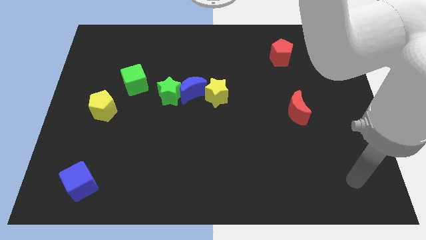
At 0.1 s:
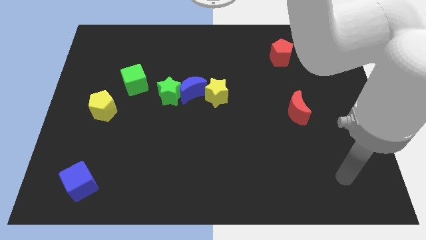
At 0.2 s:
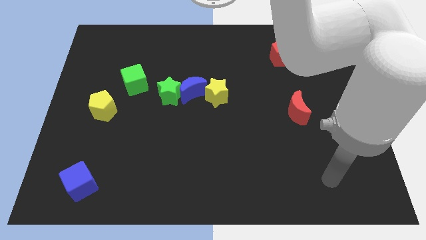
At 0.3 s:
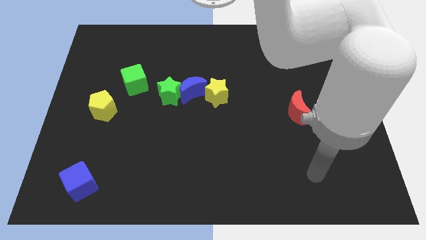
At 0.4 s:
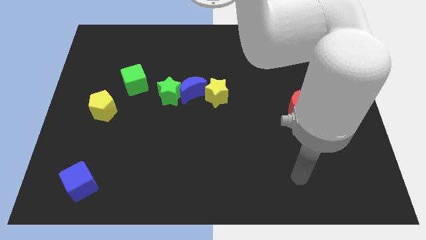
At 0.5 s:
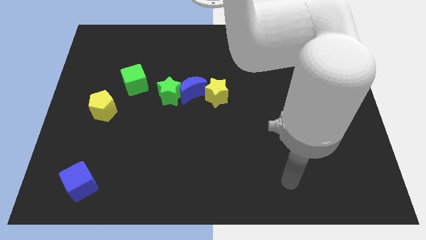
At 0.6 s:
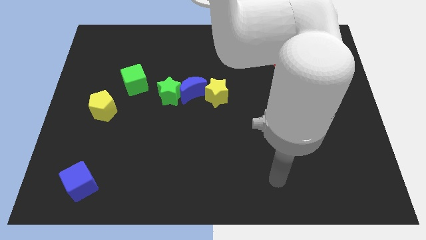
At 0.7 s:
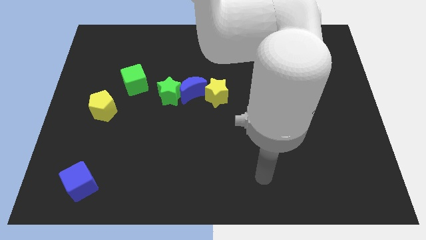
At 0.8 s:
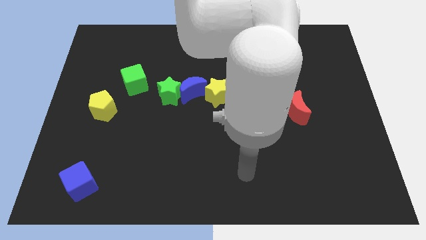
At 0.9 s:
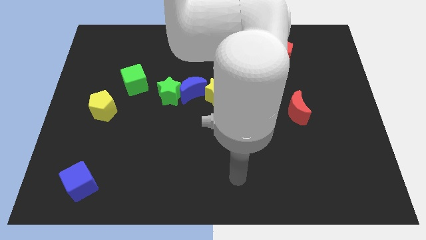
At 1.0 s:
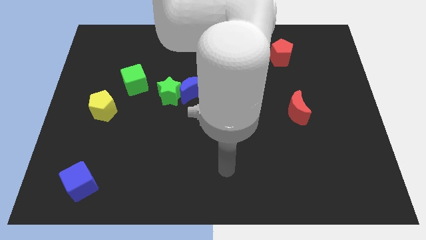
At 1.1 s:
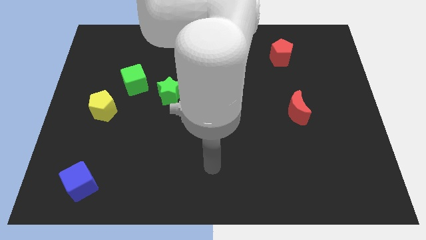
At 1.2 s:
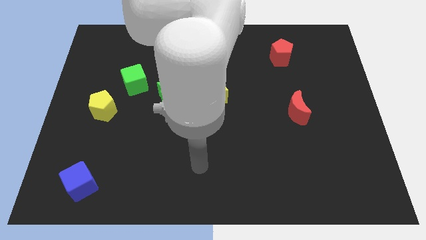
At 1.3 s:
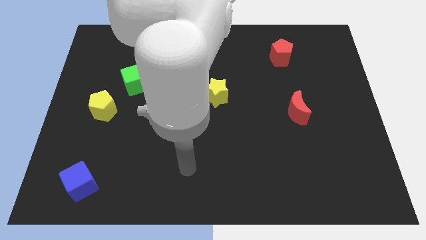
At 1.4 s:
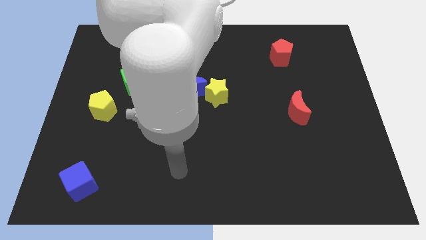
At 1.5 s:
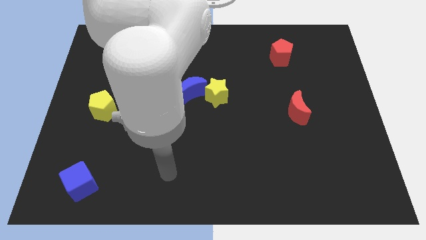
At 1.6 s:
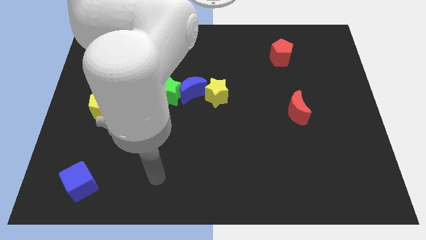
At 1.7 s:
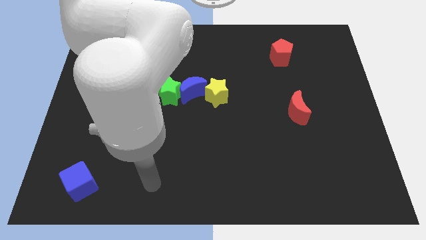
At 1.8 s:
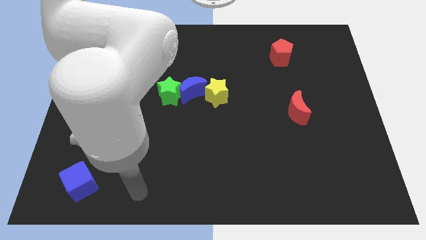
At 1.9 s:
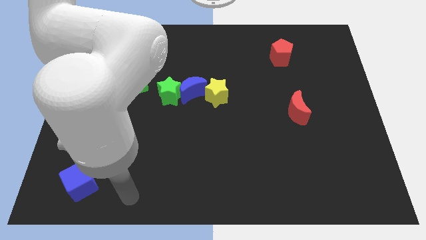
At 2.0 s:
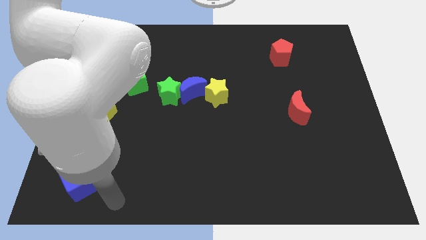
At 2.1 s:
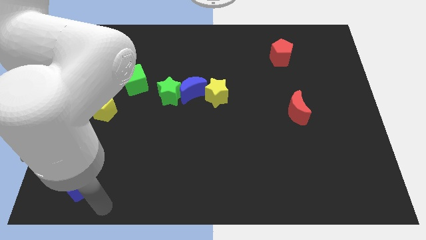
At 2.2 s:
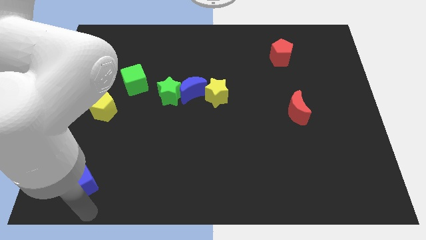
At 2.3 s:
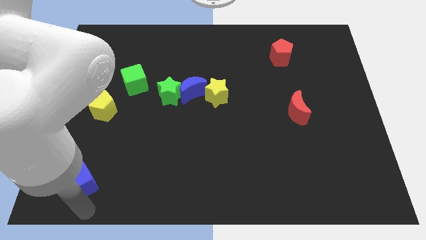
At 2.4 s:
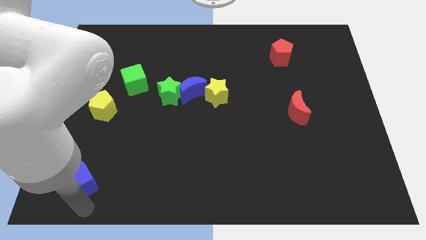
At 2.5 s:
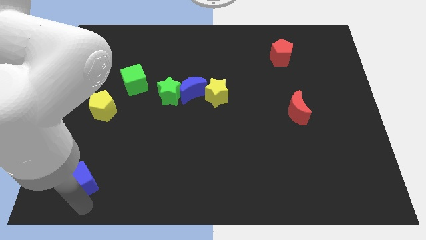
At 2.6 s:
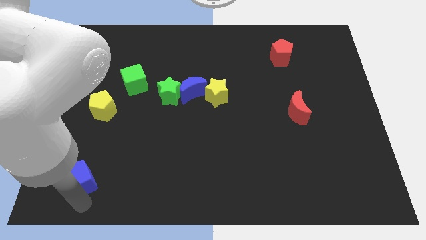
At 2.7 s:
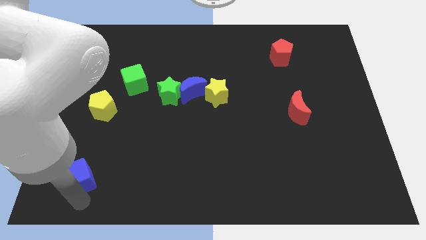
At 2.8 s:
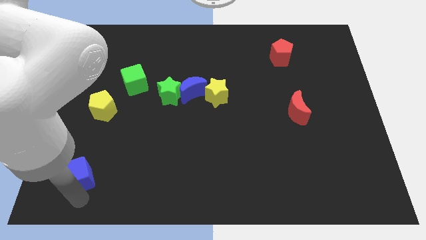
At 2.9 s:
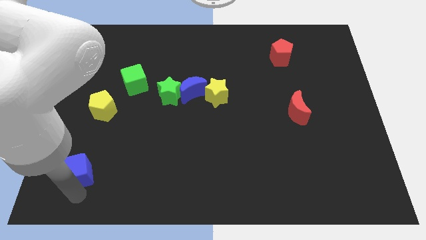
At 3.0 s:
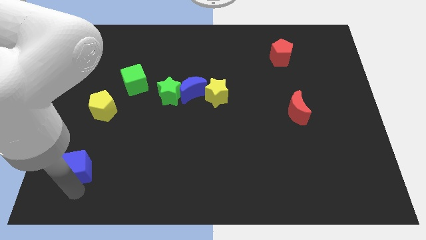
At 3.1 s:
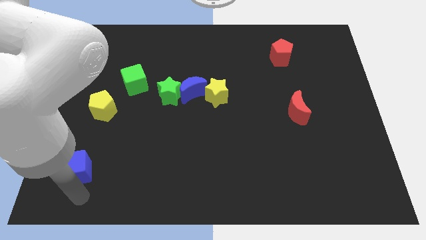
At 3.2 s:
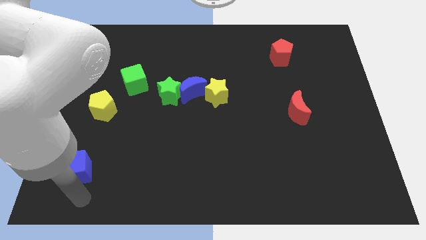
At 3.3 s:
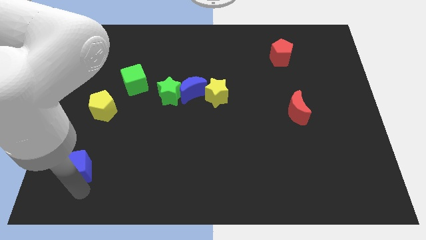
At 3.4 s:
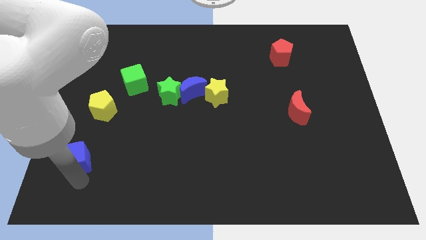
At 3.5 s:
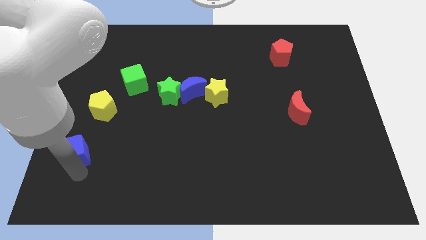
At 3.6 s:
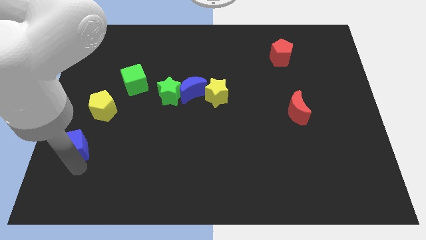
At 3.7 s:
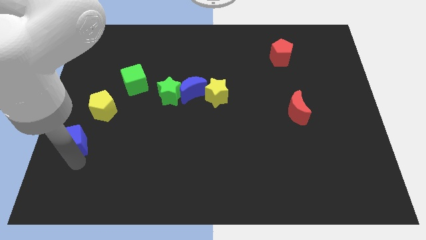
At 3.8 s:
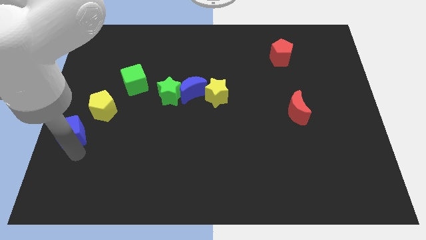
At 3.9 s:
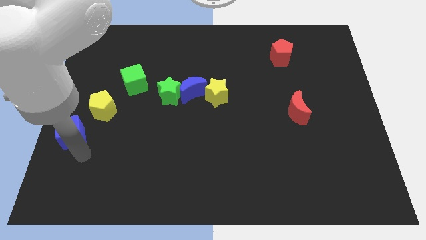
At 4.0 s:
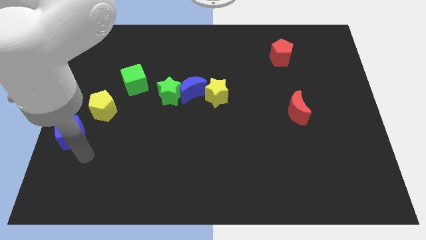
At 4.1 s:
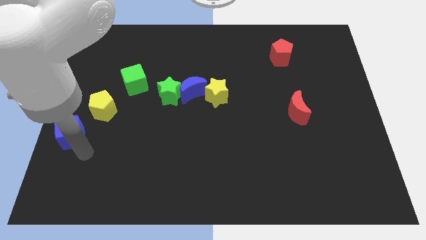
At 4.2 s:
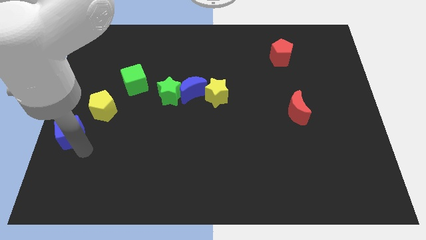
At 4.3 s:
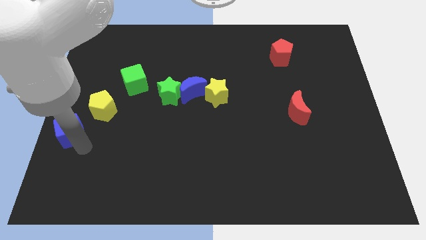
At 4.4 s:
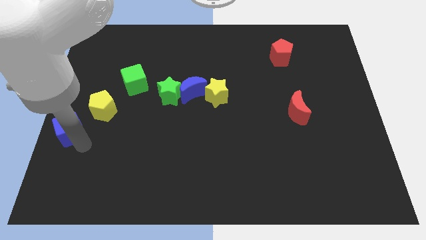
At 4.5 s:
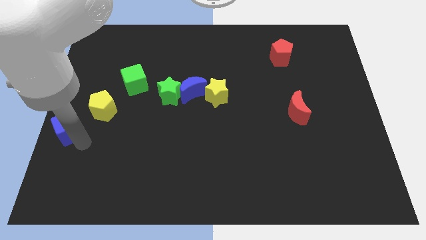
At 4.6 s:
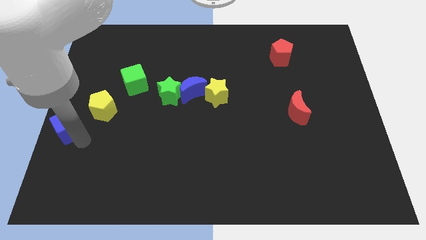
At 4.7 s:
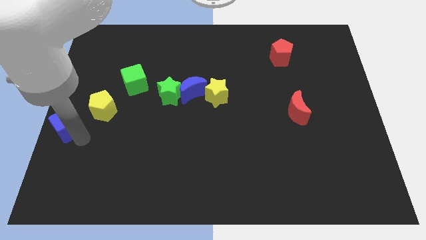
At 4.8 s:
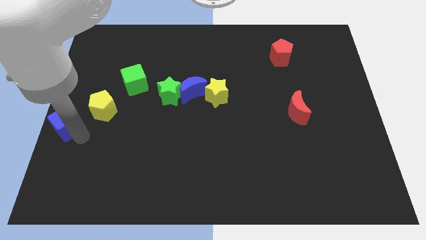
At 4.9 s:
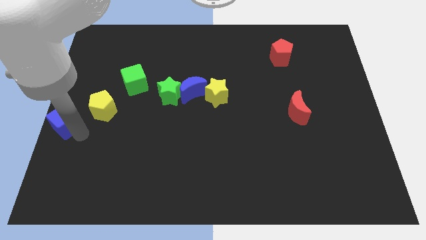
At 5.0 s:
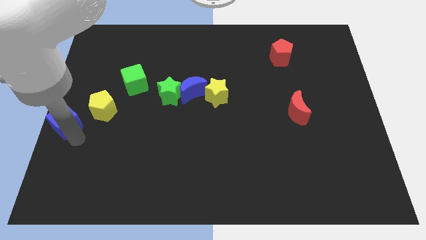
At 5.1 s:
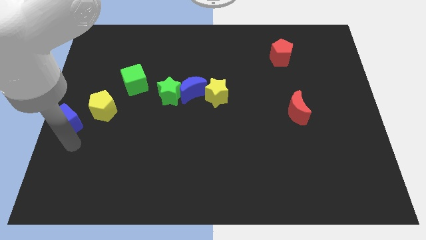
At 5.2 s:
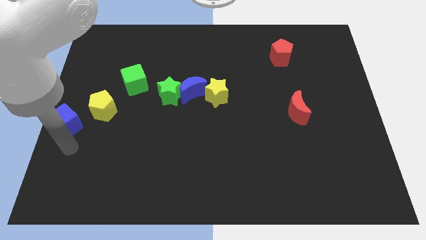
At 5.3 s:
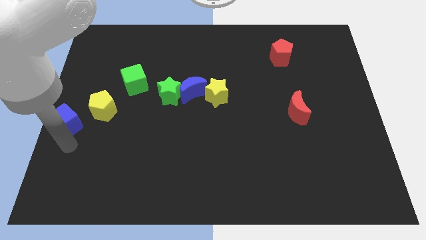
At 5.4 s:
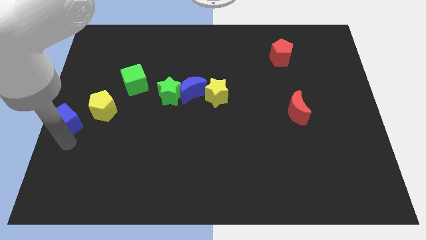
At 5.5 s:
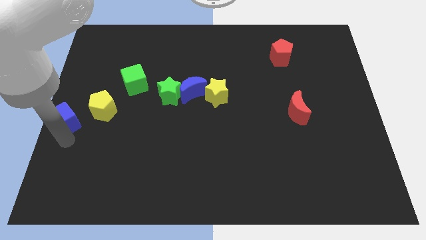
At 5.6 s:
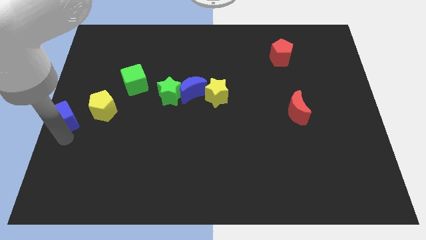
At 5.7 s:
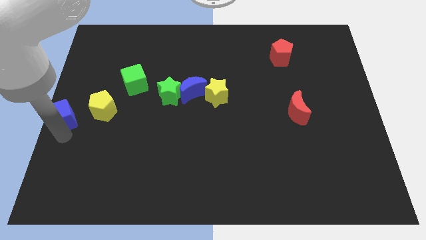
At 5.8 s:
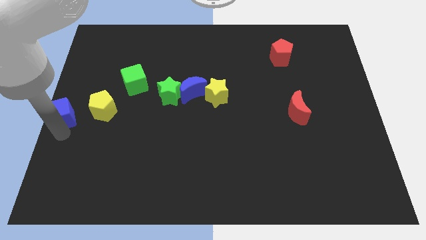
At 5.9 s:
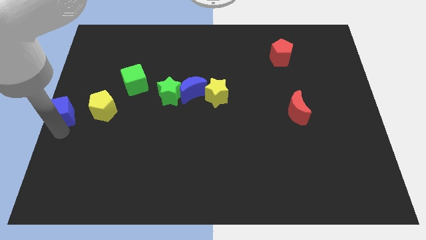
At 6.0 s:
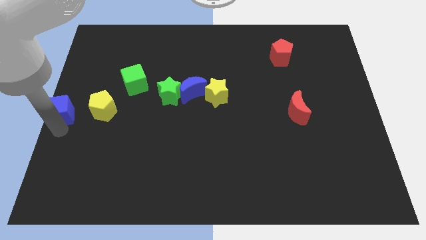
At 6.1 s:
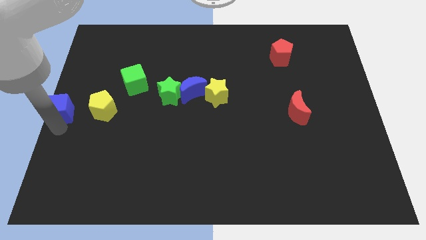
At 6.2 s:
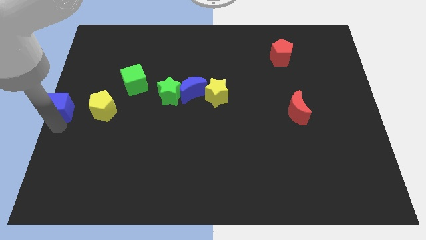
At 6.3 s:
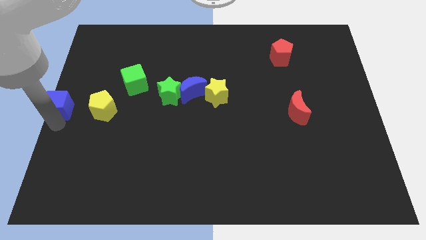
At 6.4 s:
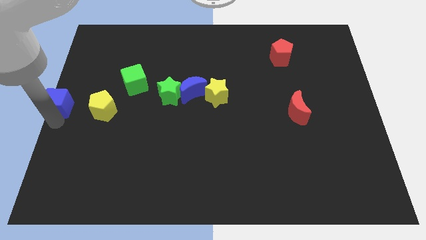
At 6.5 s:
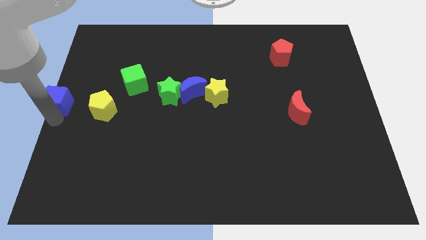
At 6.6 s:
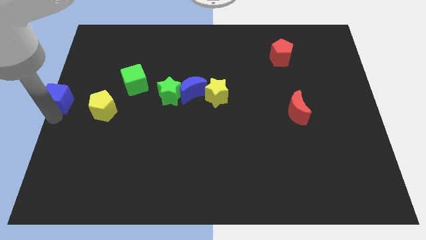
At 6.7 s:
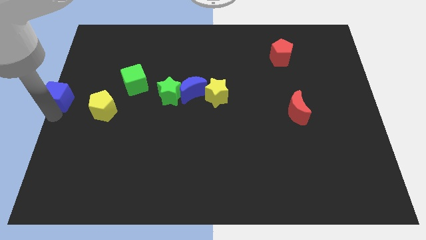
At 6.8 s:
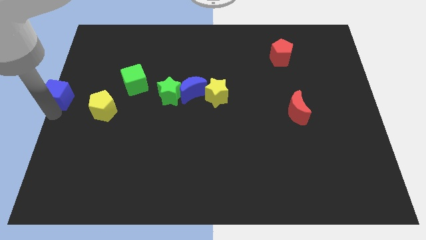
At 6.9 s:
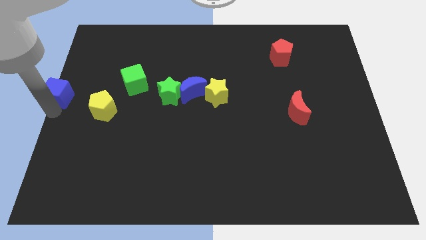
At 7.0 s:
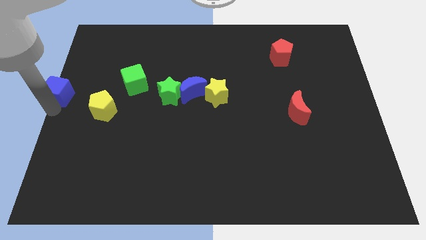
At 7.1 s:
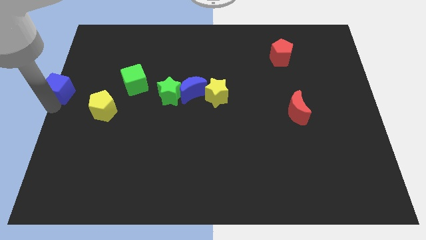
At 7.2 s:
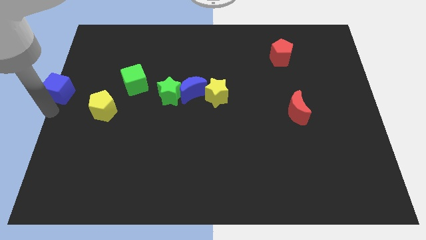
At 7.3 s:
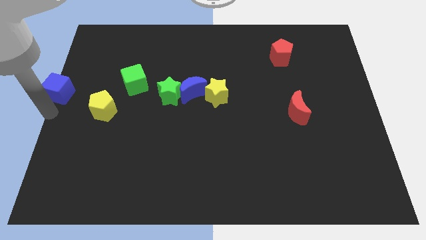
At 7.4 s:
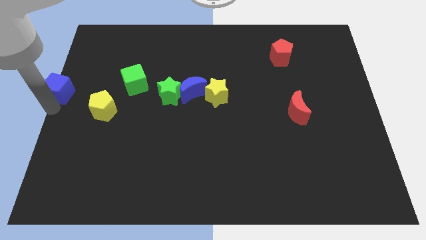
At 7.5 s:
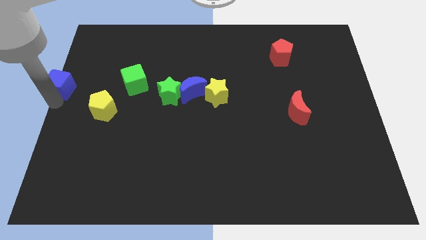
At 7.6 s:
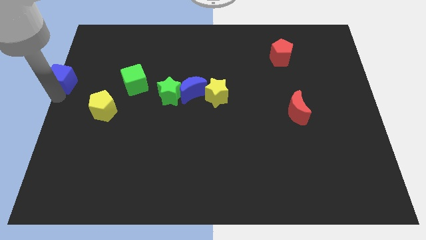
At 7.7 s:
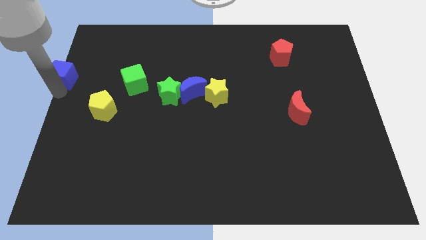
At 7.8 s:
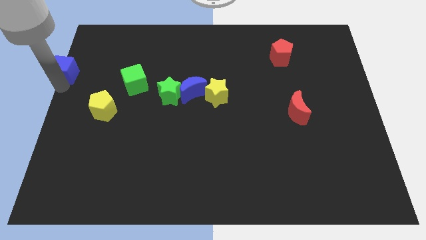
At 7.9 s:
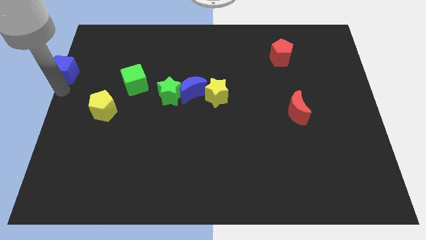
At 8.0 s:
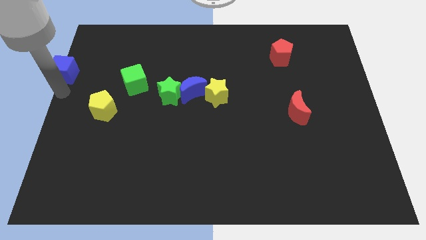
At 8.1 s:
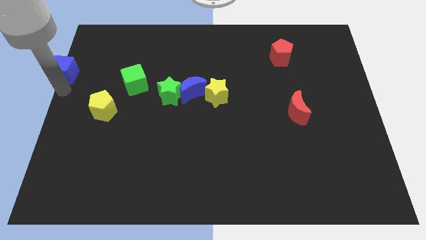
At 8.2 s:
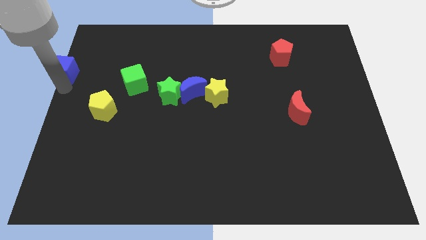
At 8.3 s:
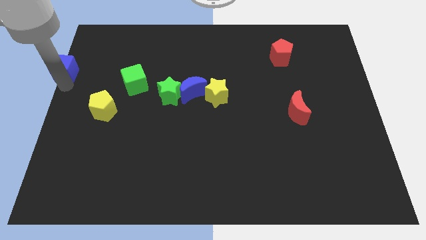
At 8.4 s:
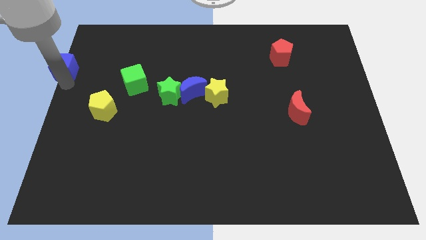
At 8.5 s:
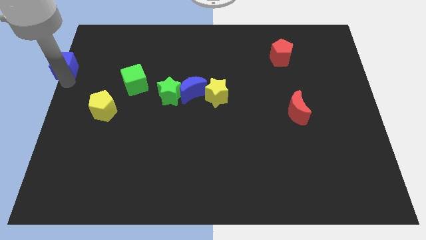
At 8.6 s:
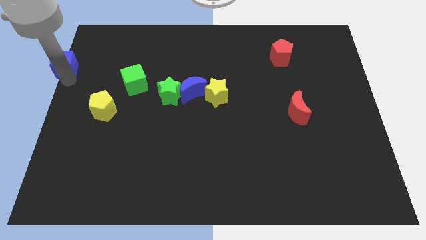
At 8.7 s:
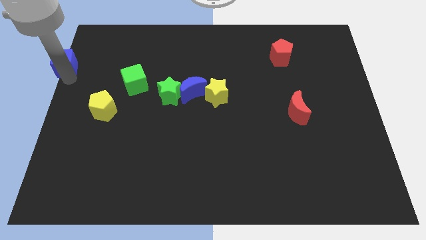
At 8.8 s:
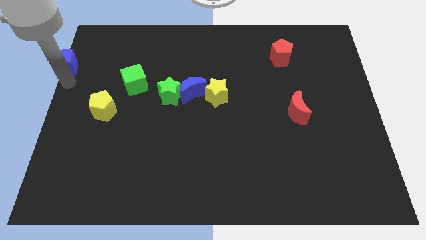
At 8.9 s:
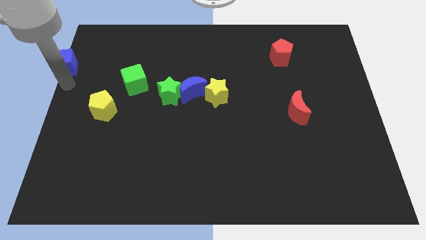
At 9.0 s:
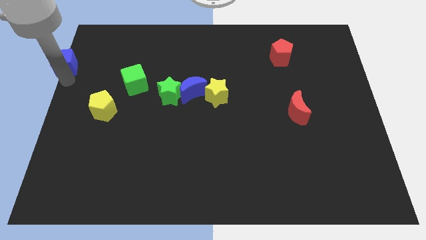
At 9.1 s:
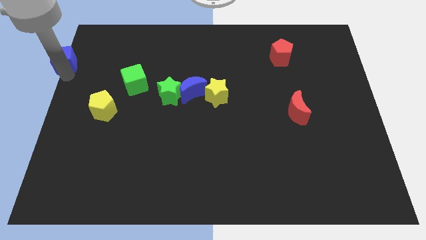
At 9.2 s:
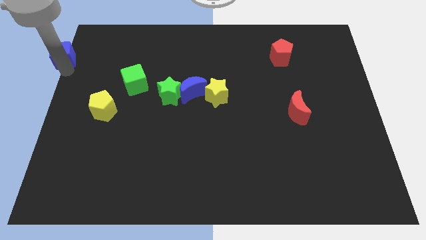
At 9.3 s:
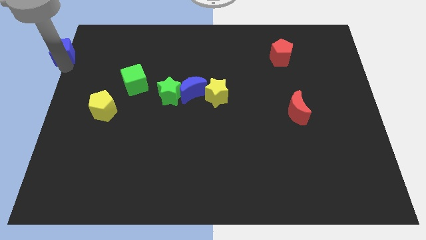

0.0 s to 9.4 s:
push the blue cube to the upper left corner
